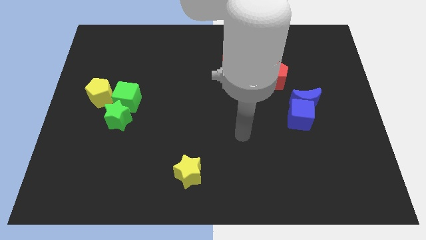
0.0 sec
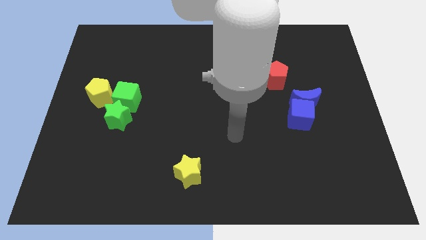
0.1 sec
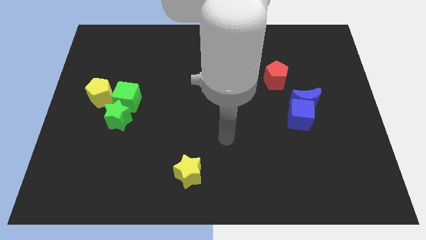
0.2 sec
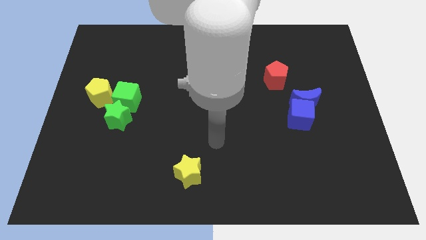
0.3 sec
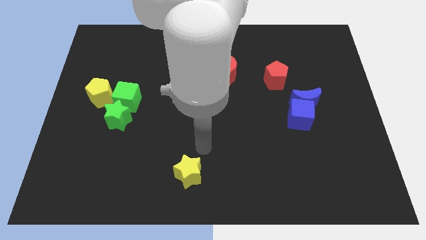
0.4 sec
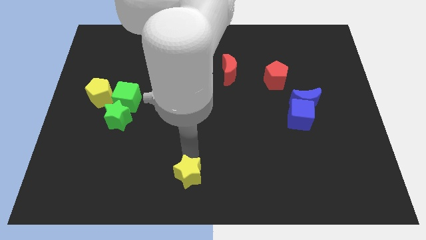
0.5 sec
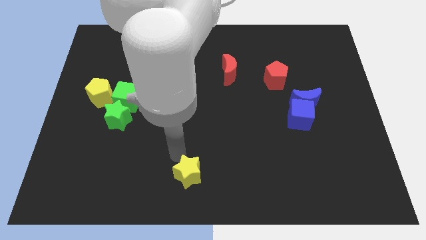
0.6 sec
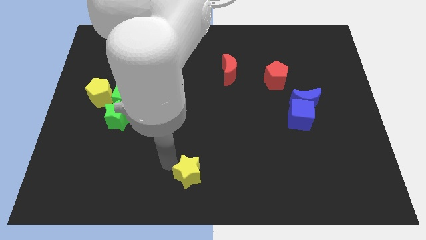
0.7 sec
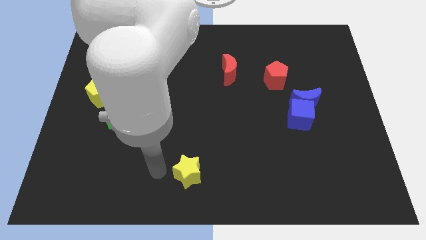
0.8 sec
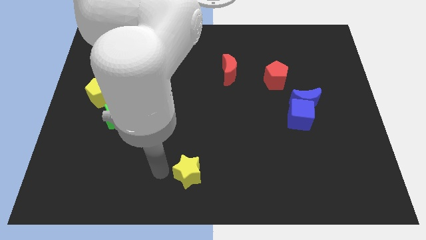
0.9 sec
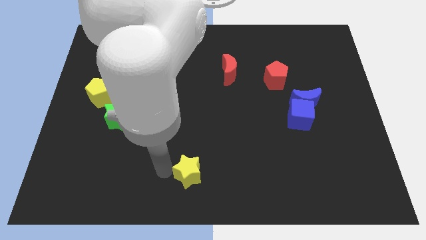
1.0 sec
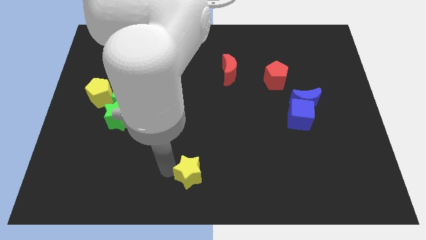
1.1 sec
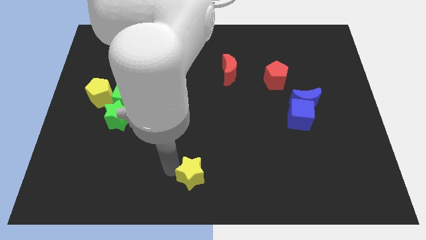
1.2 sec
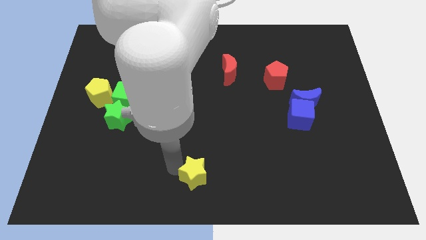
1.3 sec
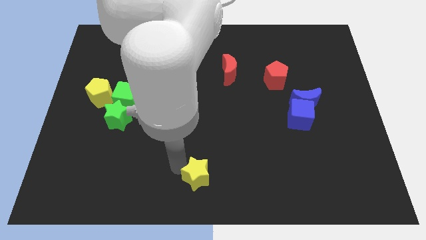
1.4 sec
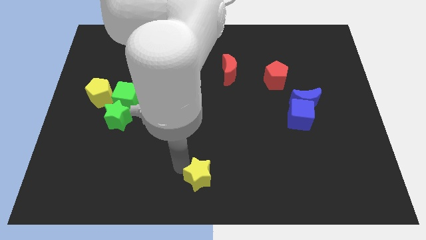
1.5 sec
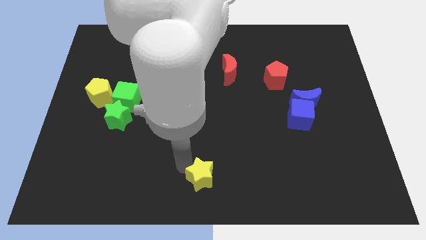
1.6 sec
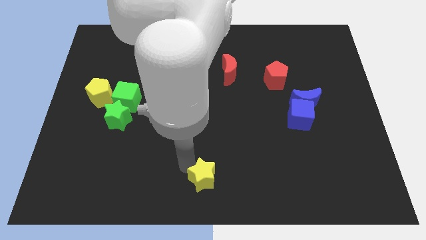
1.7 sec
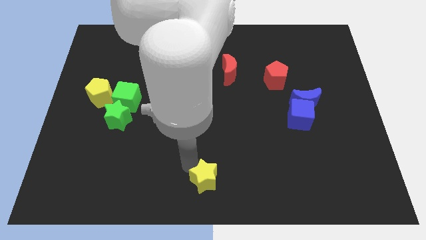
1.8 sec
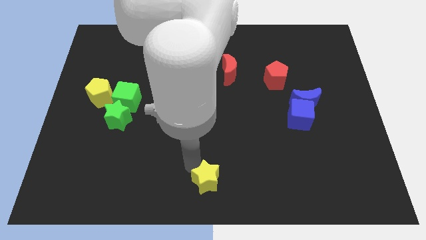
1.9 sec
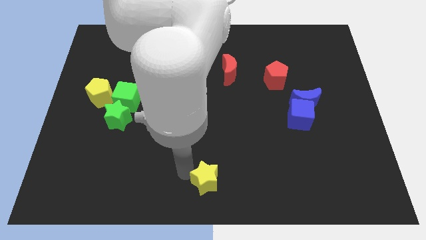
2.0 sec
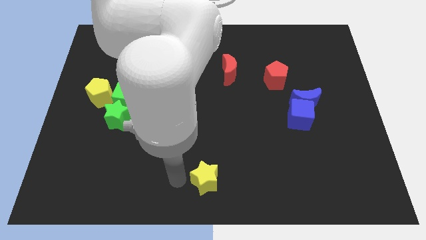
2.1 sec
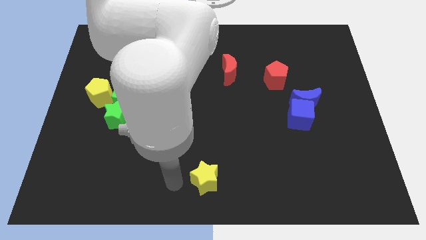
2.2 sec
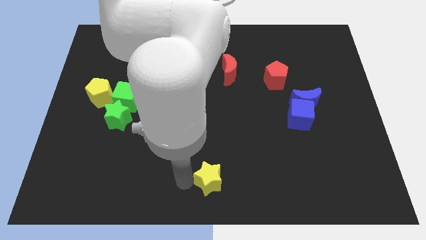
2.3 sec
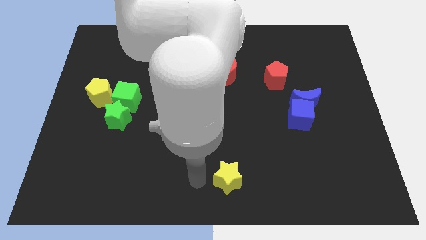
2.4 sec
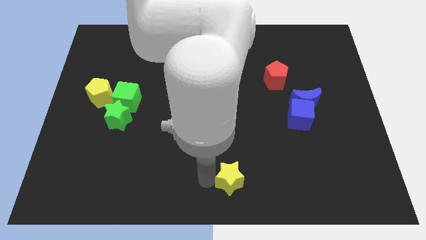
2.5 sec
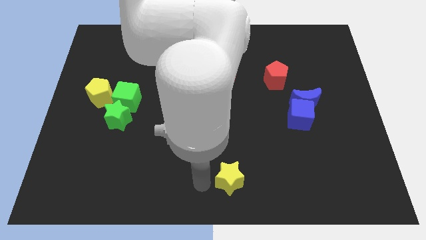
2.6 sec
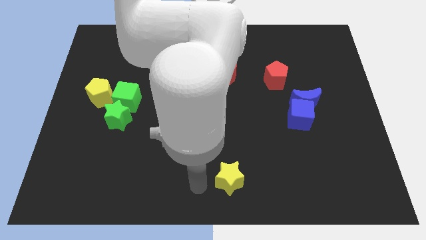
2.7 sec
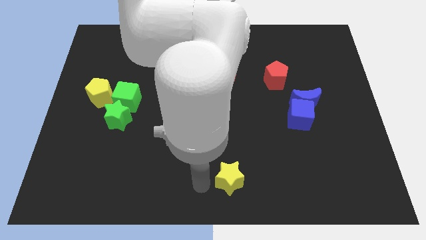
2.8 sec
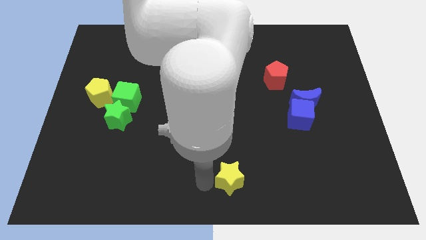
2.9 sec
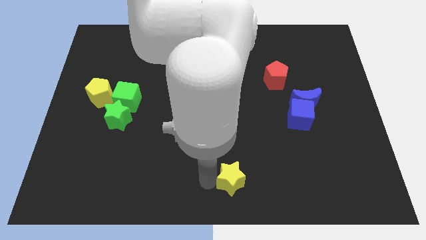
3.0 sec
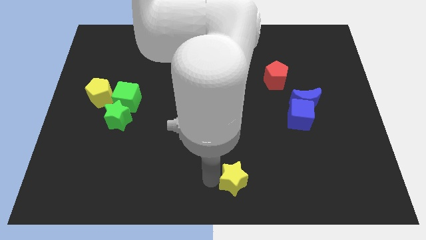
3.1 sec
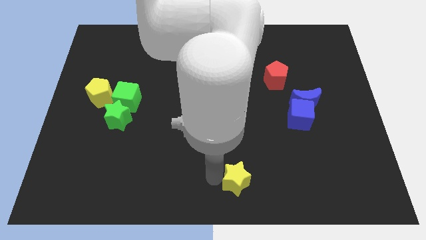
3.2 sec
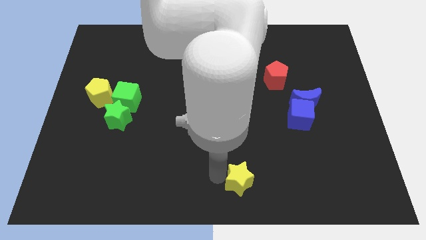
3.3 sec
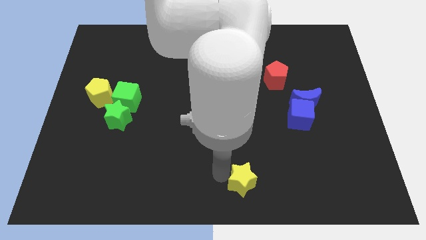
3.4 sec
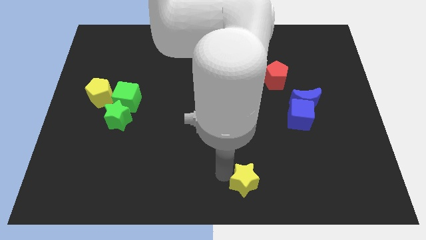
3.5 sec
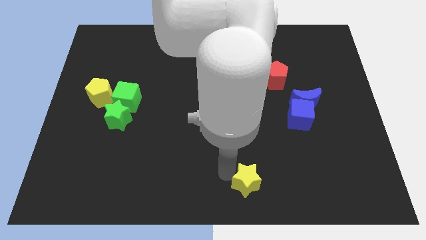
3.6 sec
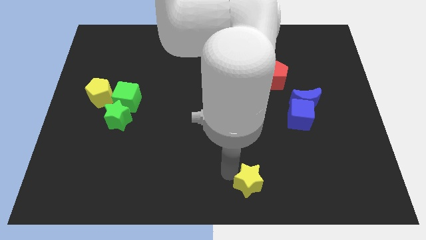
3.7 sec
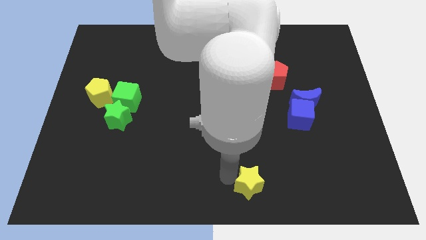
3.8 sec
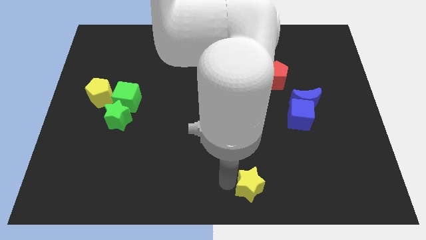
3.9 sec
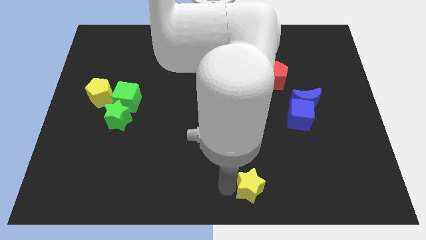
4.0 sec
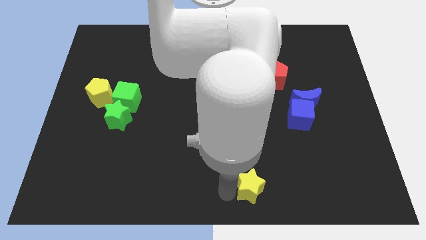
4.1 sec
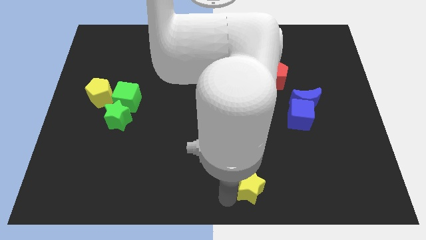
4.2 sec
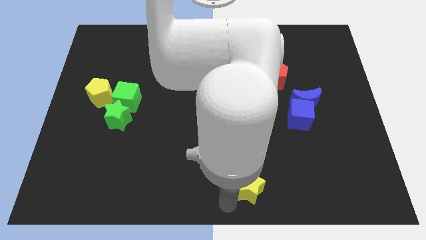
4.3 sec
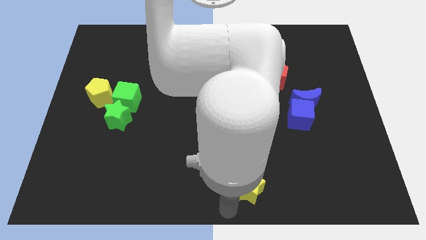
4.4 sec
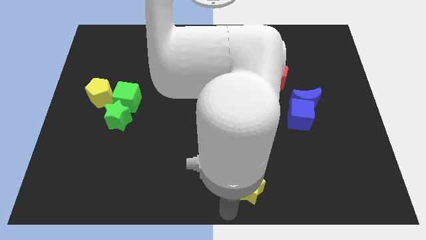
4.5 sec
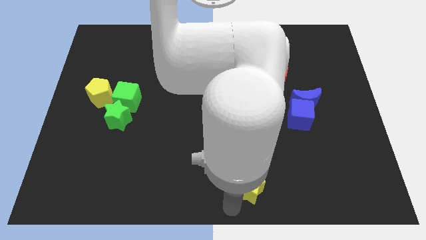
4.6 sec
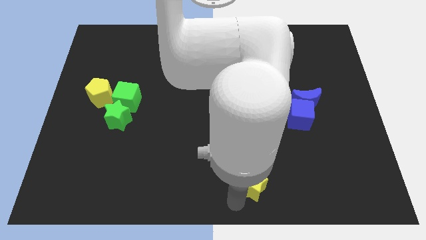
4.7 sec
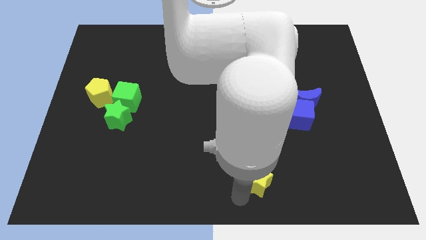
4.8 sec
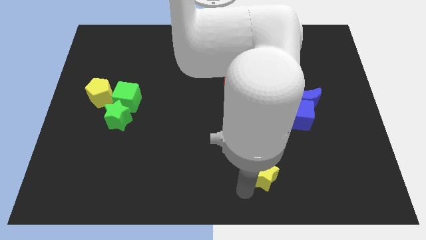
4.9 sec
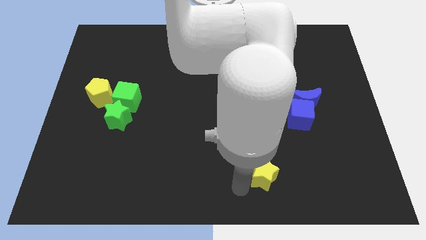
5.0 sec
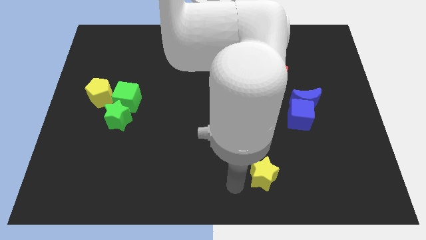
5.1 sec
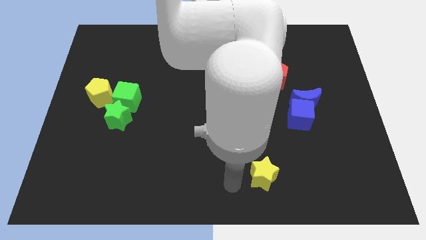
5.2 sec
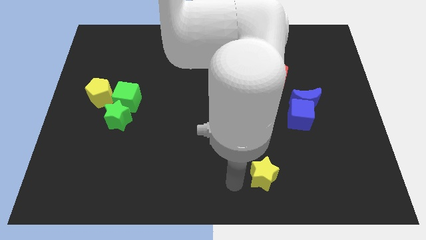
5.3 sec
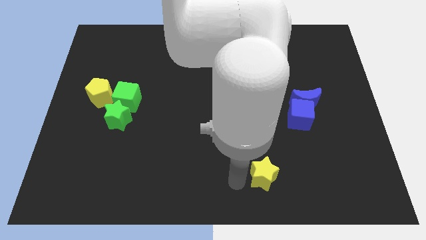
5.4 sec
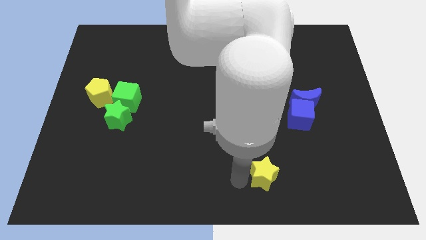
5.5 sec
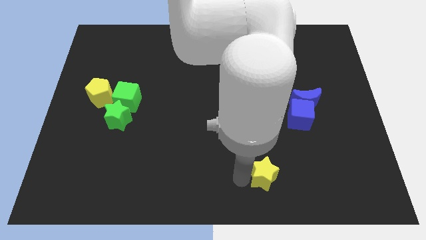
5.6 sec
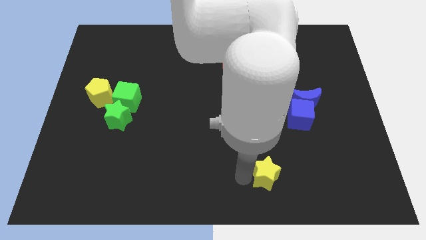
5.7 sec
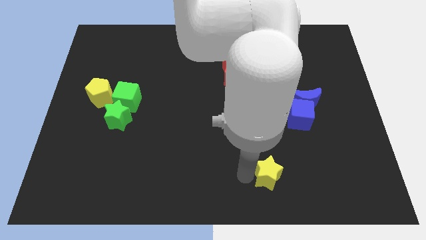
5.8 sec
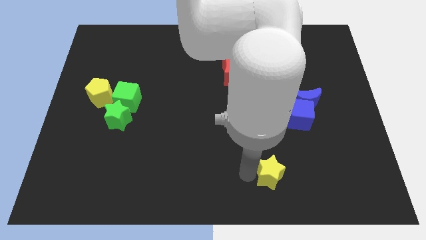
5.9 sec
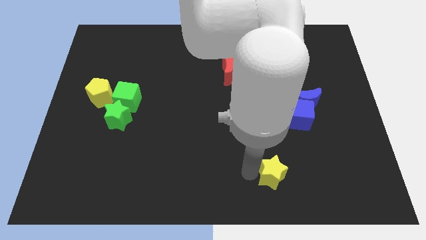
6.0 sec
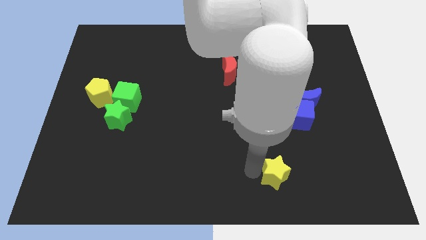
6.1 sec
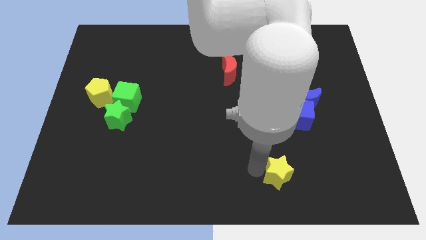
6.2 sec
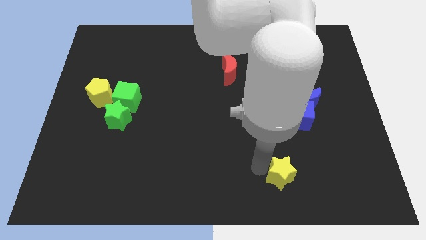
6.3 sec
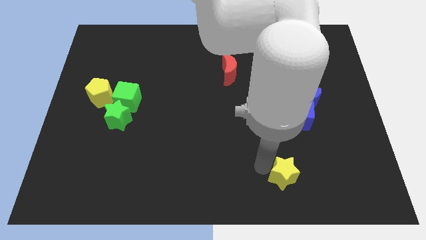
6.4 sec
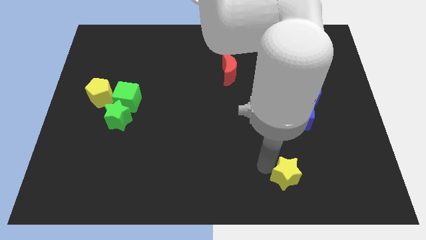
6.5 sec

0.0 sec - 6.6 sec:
push the yellow star to the right

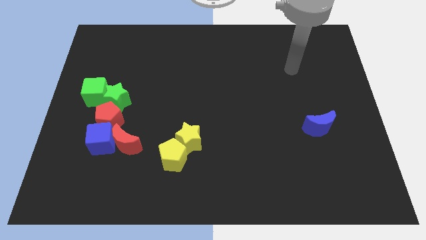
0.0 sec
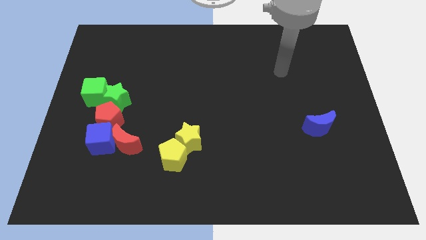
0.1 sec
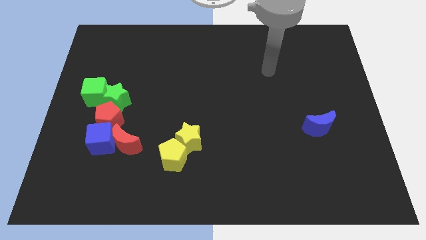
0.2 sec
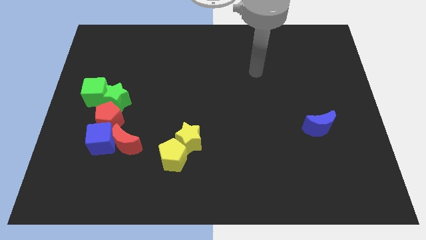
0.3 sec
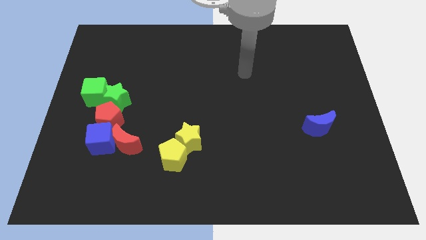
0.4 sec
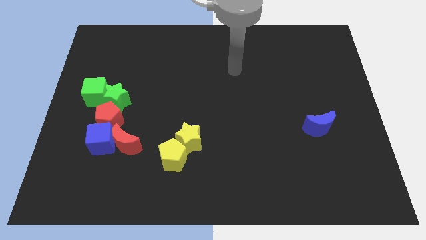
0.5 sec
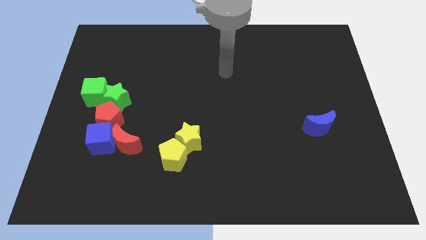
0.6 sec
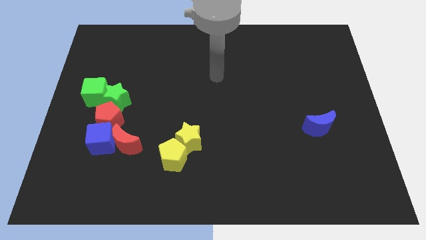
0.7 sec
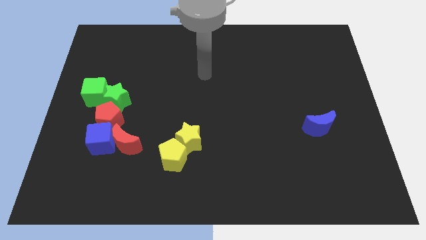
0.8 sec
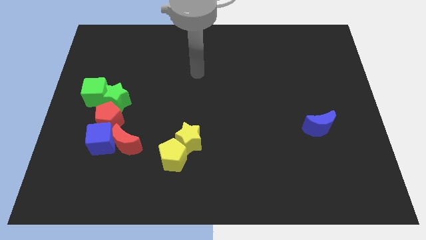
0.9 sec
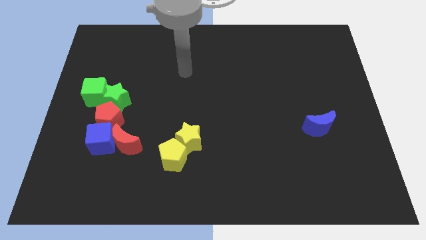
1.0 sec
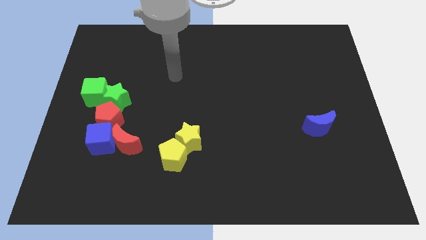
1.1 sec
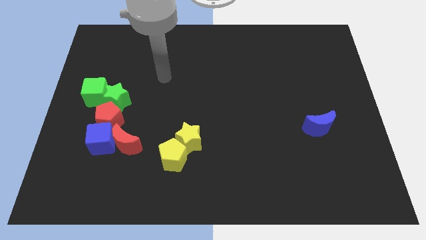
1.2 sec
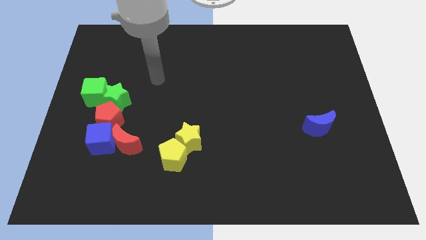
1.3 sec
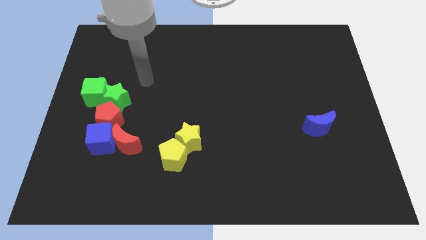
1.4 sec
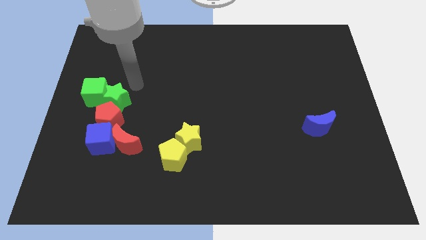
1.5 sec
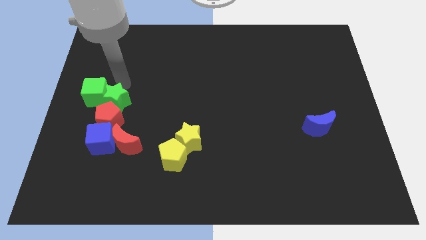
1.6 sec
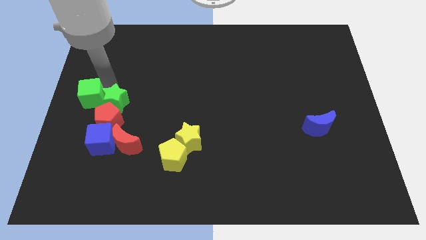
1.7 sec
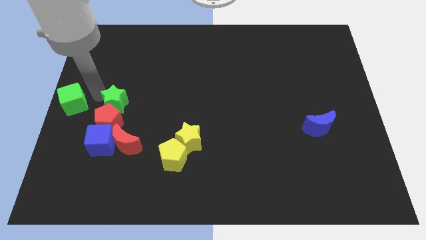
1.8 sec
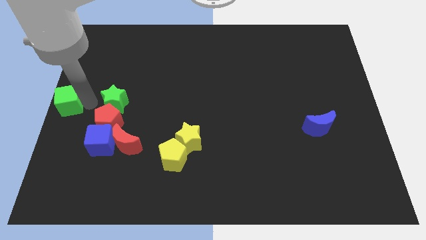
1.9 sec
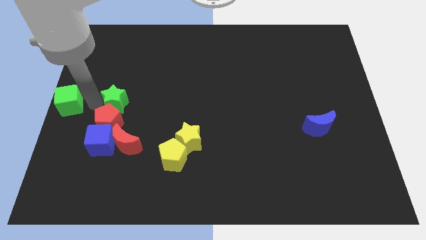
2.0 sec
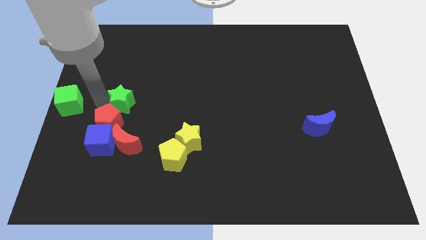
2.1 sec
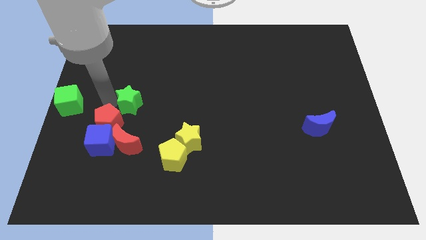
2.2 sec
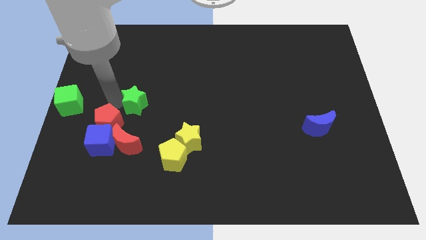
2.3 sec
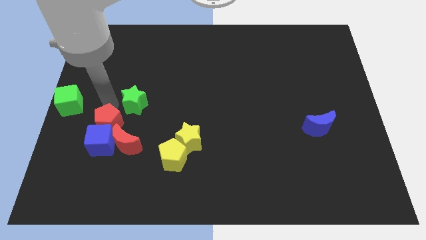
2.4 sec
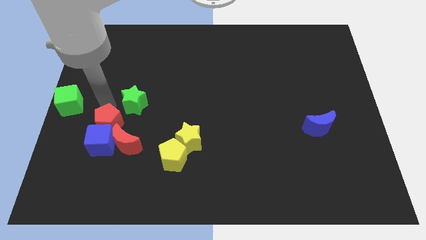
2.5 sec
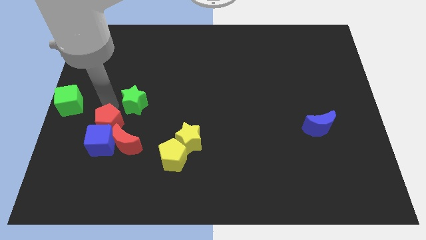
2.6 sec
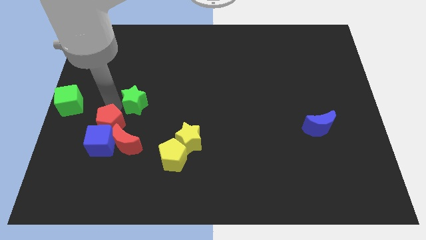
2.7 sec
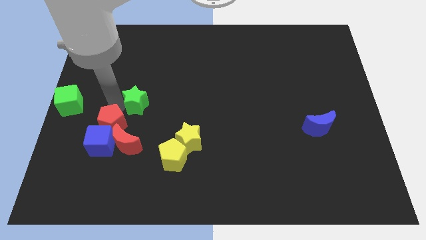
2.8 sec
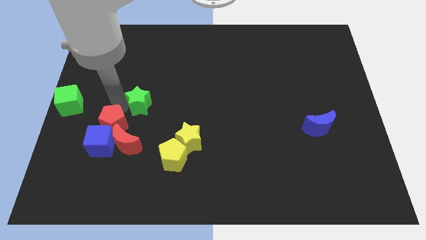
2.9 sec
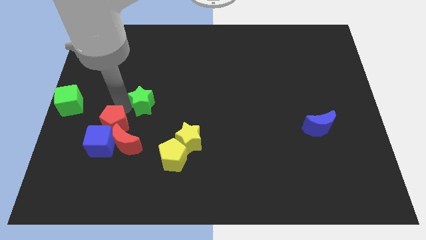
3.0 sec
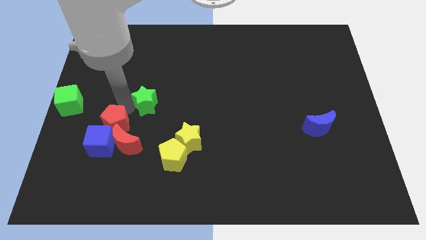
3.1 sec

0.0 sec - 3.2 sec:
move the green star a bit right
